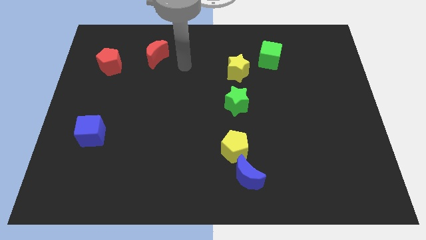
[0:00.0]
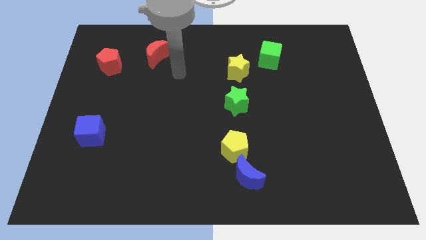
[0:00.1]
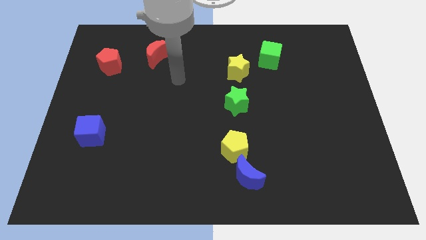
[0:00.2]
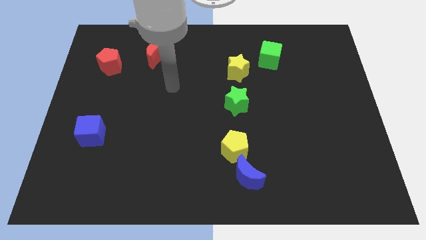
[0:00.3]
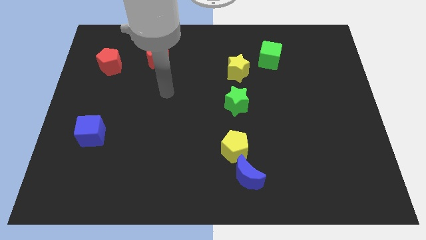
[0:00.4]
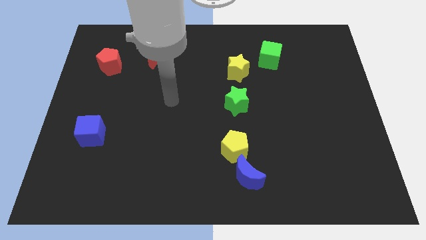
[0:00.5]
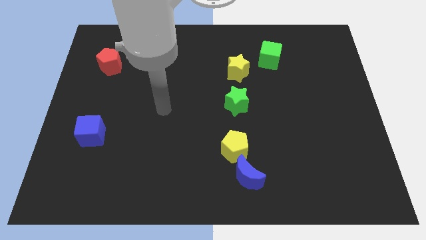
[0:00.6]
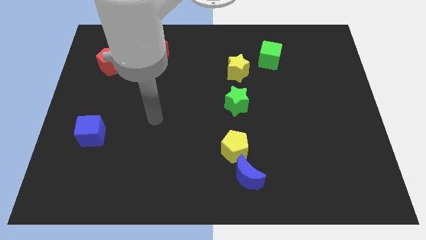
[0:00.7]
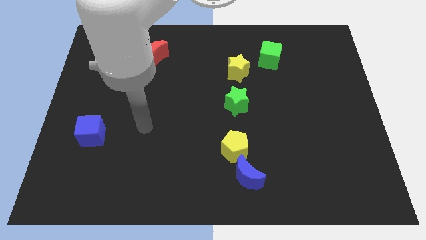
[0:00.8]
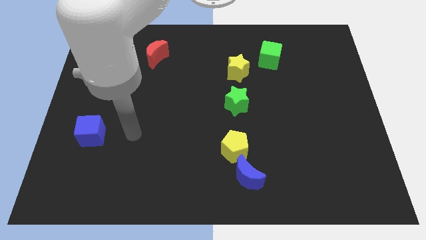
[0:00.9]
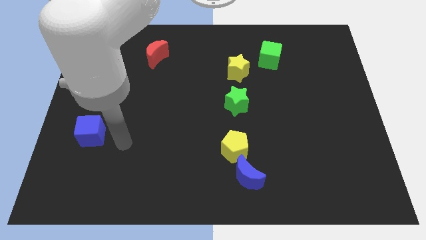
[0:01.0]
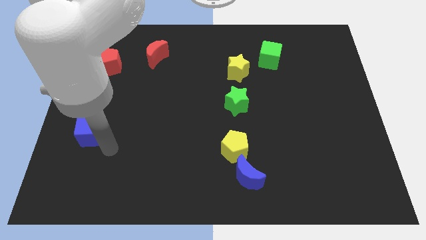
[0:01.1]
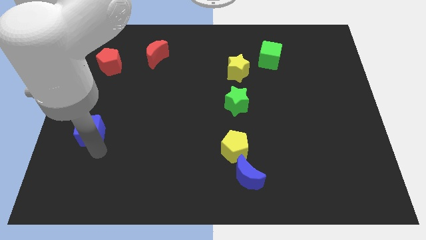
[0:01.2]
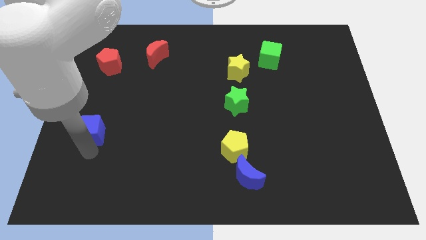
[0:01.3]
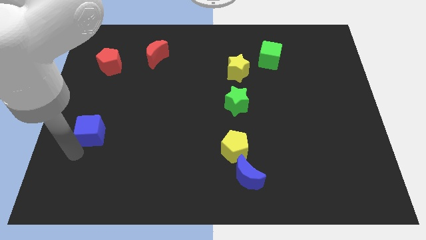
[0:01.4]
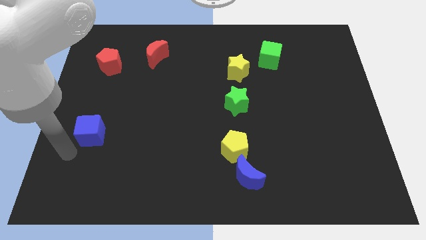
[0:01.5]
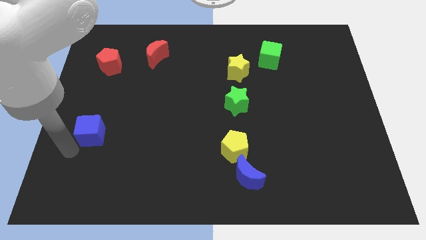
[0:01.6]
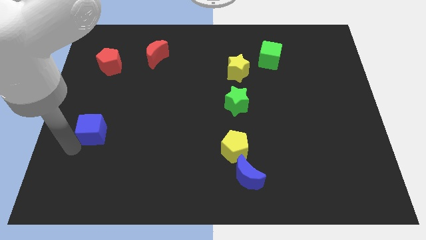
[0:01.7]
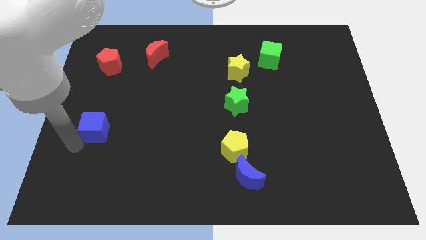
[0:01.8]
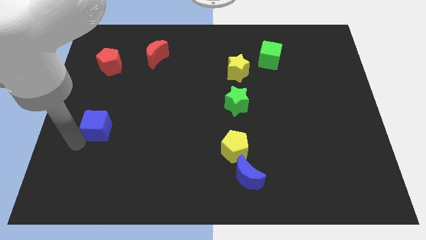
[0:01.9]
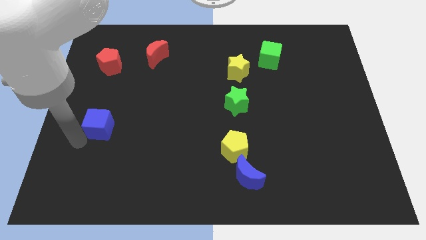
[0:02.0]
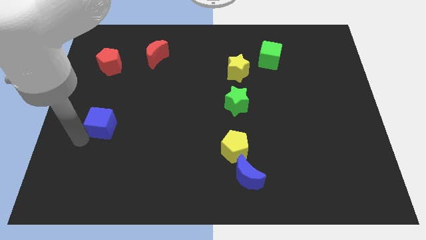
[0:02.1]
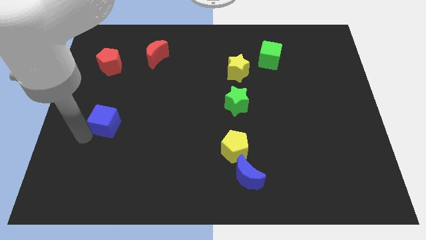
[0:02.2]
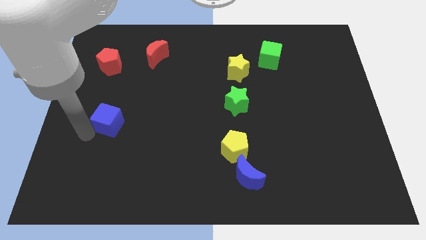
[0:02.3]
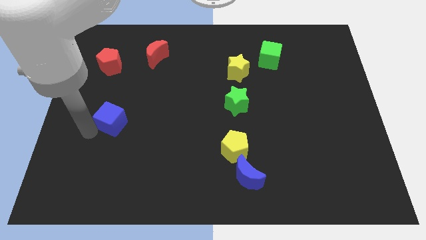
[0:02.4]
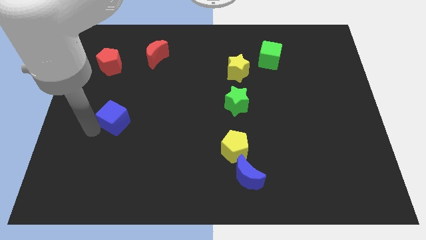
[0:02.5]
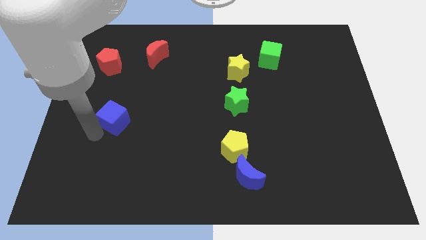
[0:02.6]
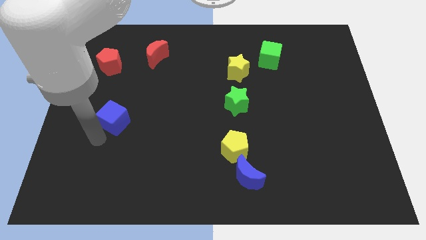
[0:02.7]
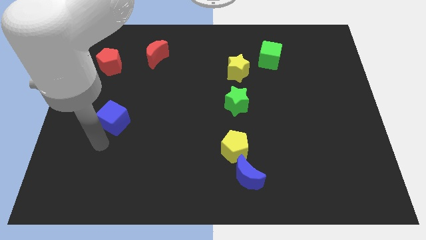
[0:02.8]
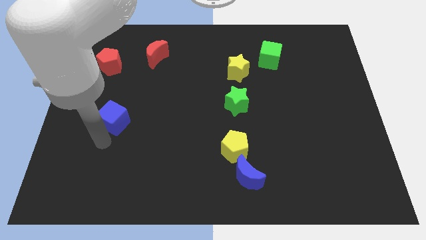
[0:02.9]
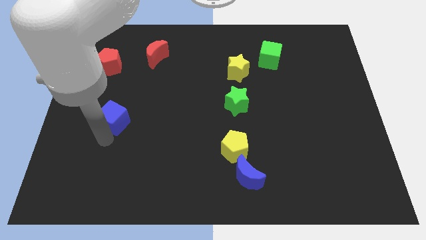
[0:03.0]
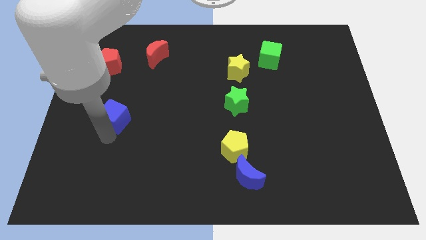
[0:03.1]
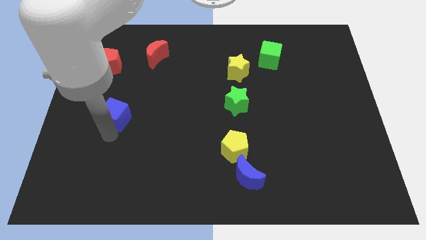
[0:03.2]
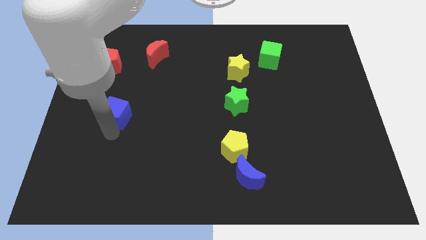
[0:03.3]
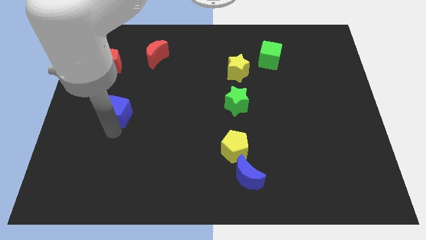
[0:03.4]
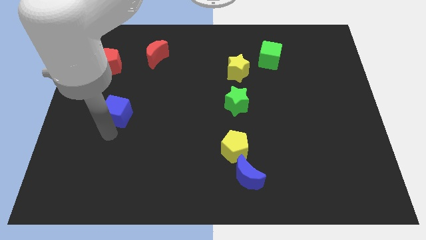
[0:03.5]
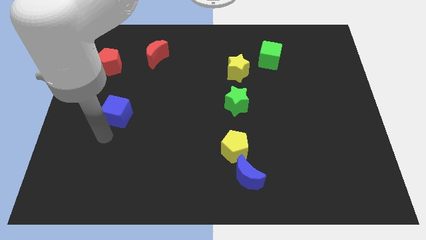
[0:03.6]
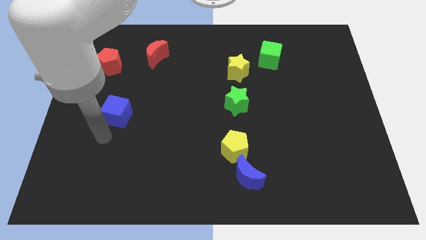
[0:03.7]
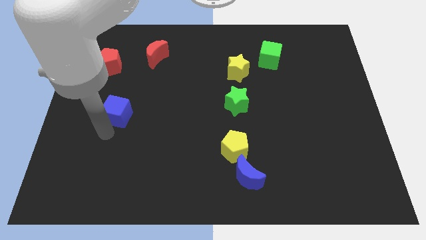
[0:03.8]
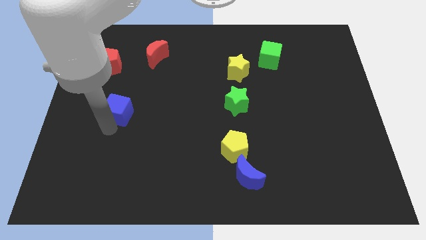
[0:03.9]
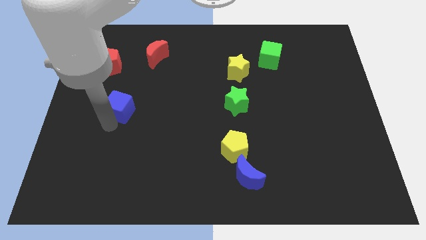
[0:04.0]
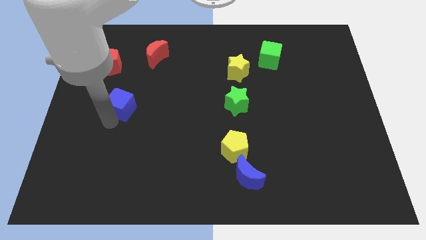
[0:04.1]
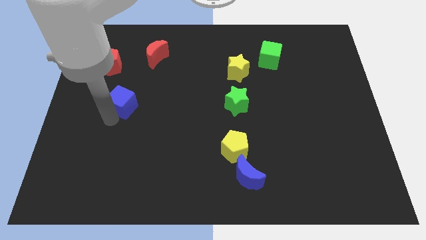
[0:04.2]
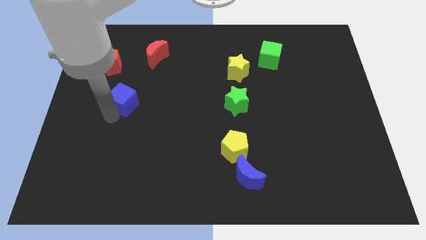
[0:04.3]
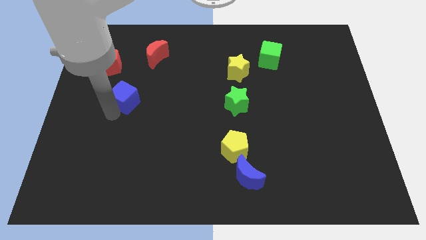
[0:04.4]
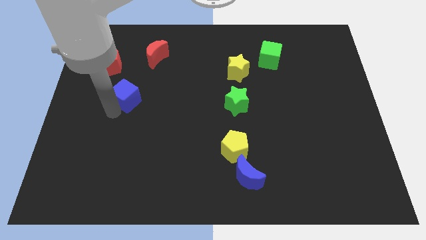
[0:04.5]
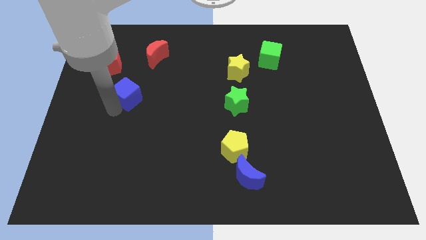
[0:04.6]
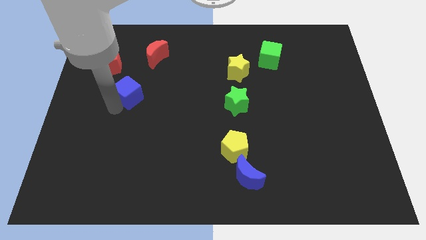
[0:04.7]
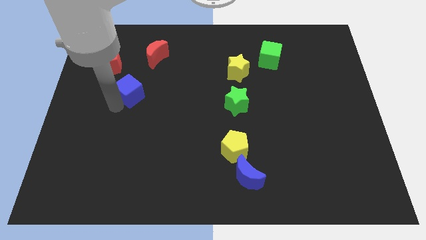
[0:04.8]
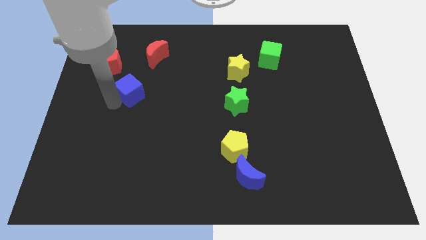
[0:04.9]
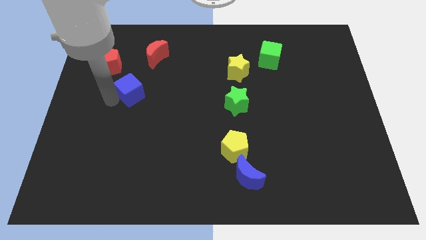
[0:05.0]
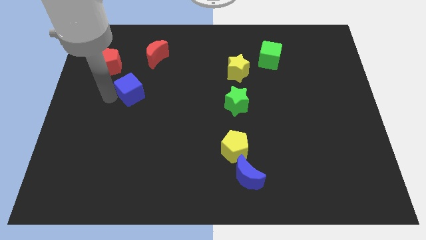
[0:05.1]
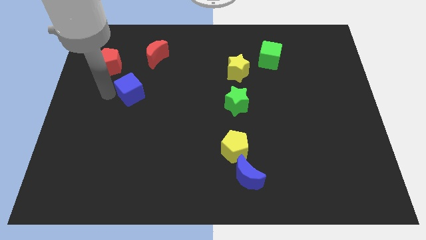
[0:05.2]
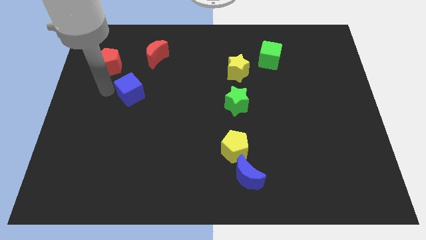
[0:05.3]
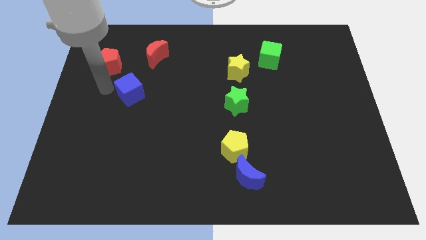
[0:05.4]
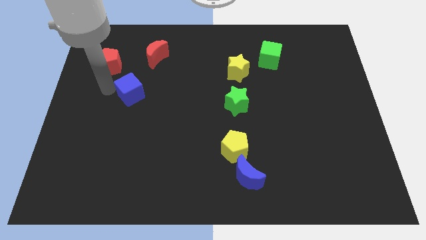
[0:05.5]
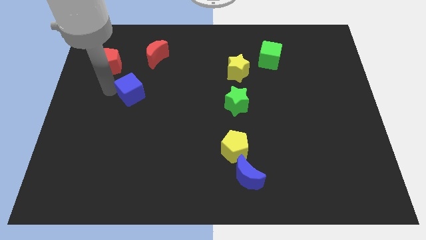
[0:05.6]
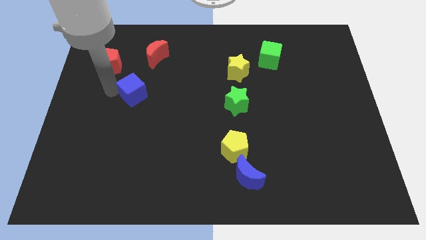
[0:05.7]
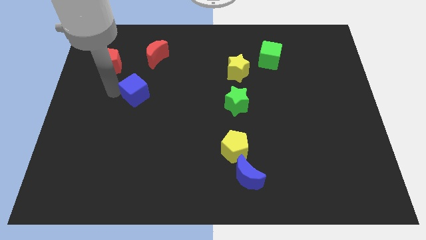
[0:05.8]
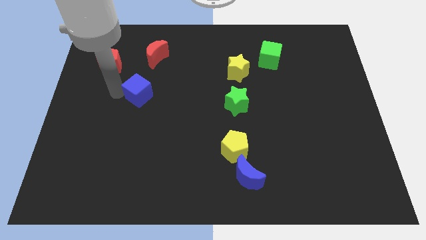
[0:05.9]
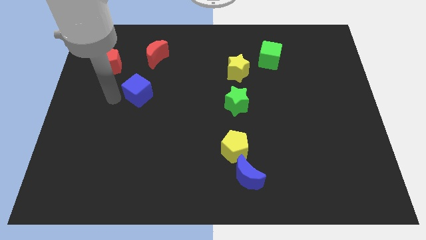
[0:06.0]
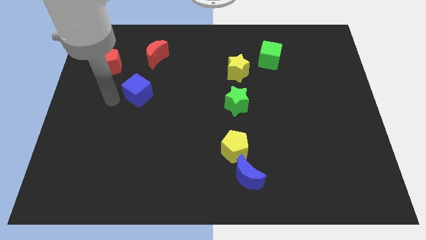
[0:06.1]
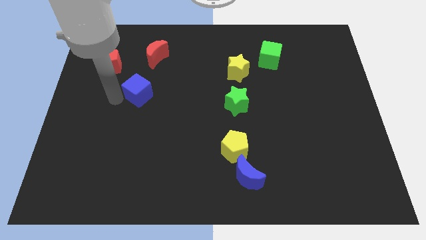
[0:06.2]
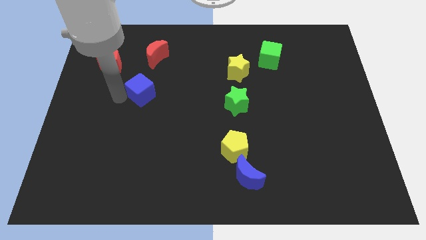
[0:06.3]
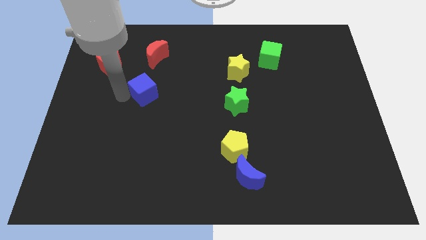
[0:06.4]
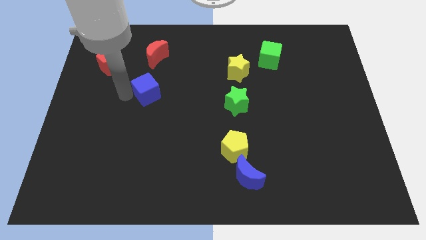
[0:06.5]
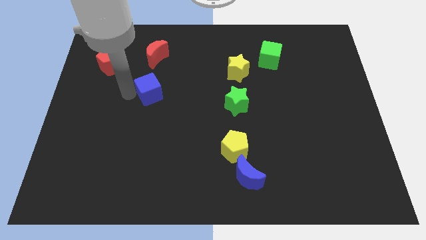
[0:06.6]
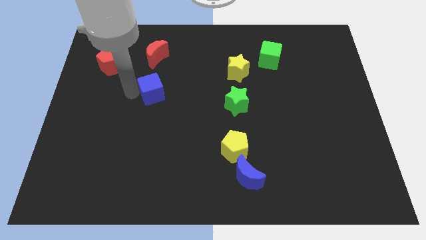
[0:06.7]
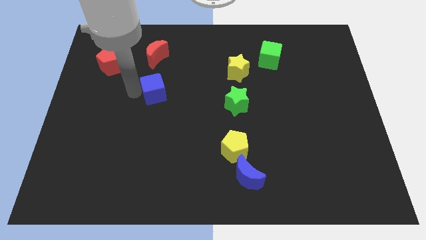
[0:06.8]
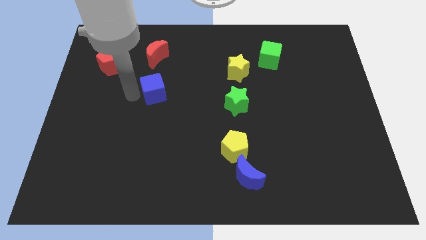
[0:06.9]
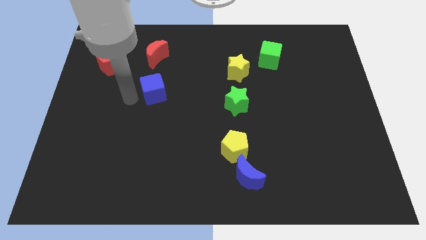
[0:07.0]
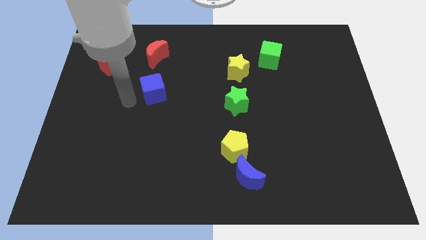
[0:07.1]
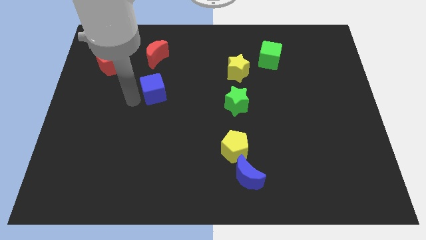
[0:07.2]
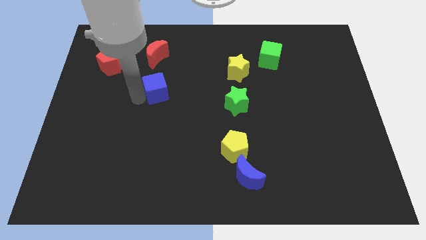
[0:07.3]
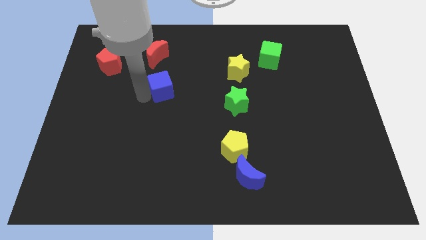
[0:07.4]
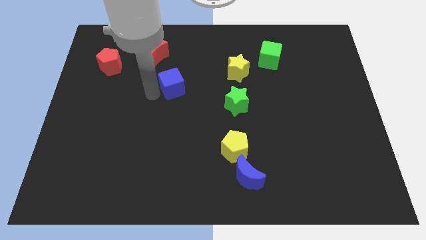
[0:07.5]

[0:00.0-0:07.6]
move the blue cube up and to the right

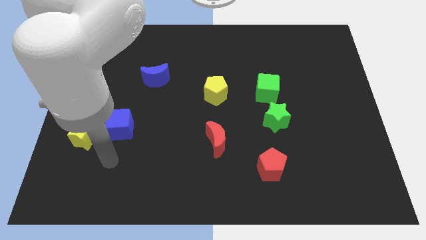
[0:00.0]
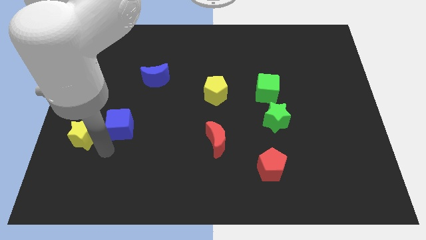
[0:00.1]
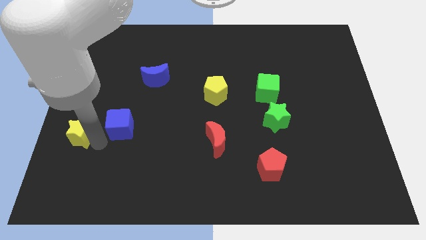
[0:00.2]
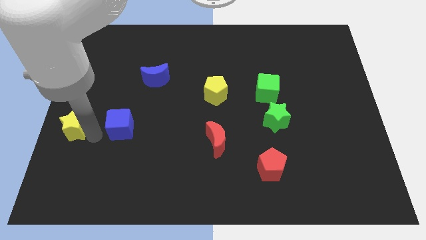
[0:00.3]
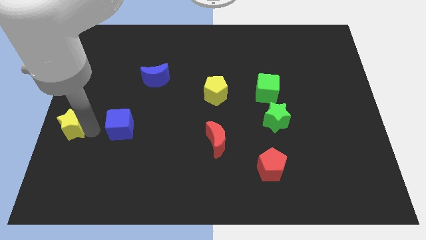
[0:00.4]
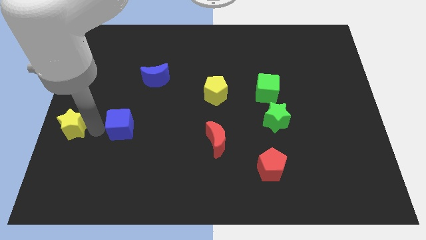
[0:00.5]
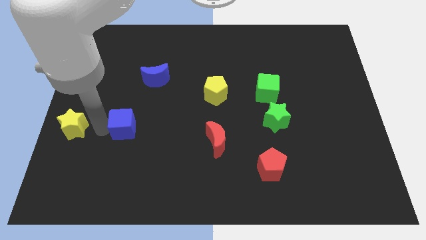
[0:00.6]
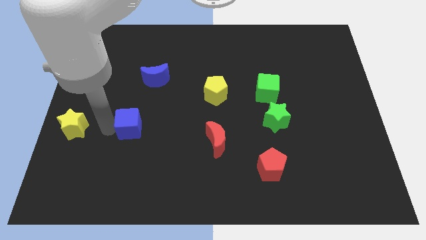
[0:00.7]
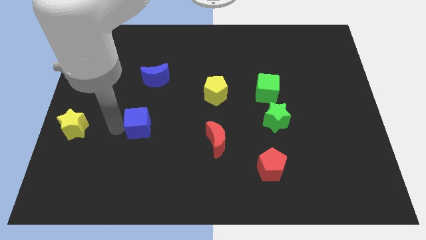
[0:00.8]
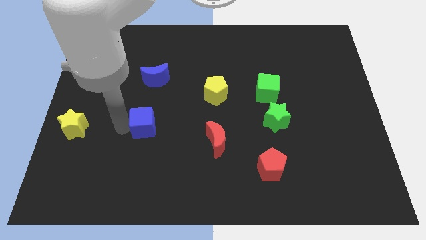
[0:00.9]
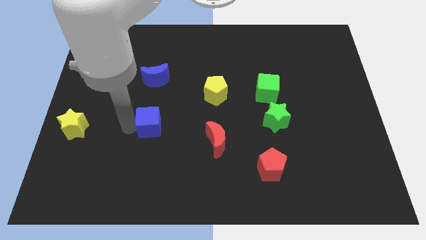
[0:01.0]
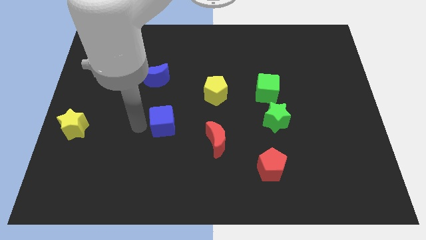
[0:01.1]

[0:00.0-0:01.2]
slightly slide the blue cube right
